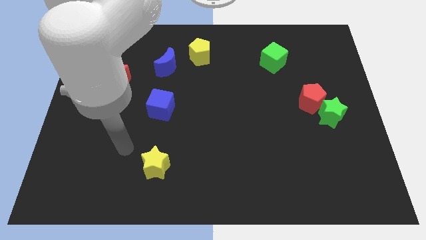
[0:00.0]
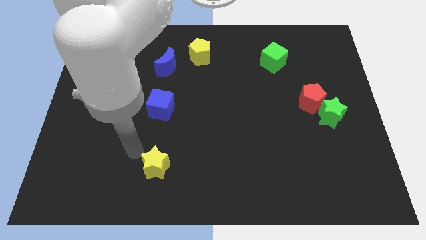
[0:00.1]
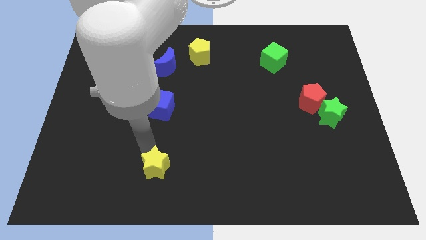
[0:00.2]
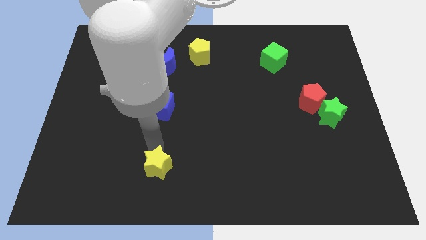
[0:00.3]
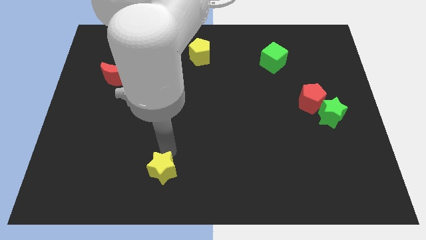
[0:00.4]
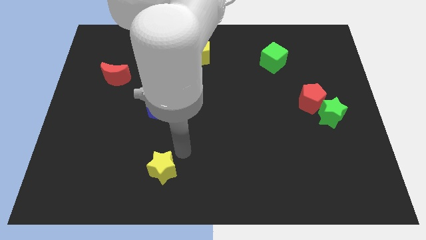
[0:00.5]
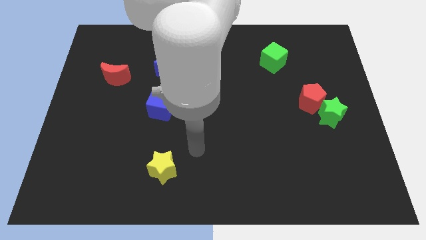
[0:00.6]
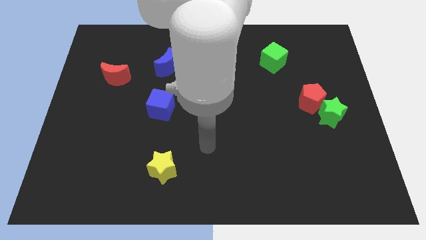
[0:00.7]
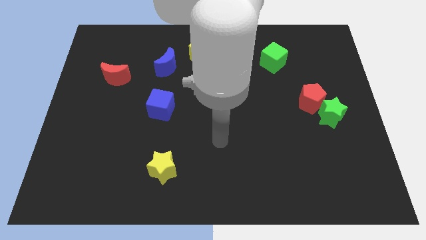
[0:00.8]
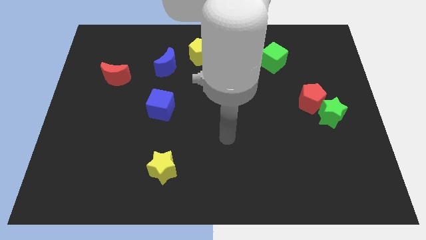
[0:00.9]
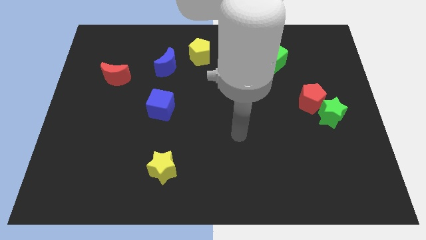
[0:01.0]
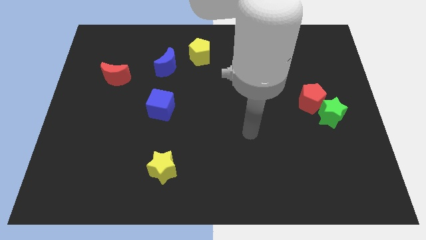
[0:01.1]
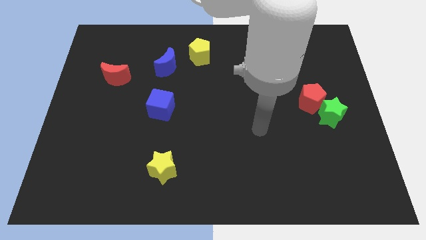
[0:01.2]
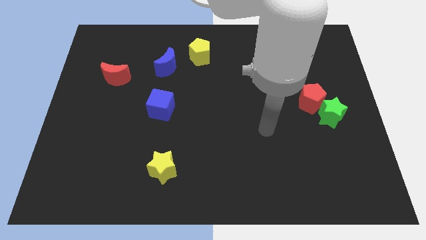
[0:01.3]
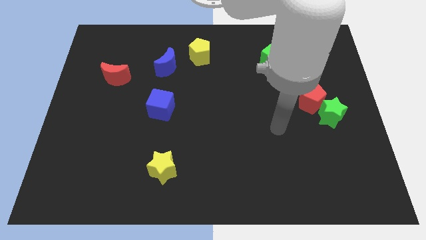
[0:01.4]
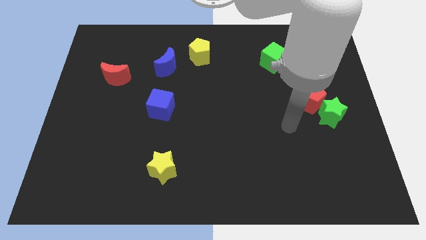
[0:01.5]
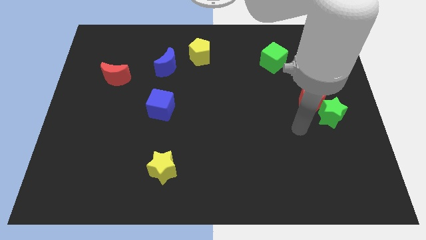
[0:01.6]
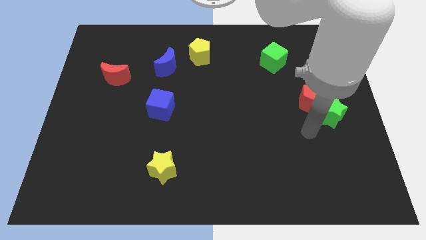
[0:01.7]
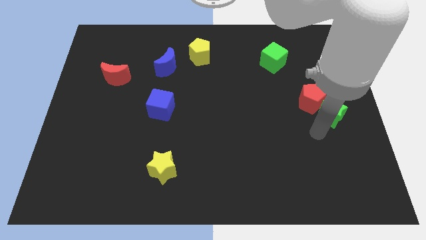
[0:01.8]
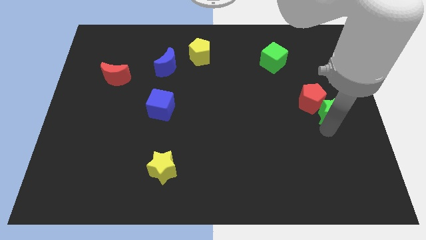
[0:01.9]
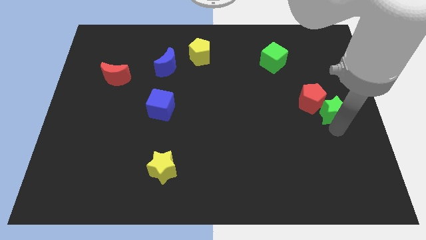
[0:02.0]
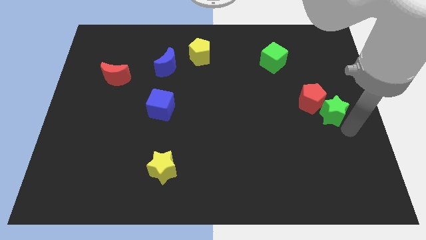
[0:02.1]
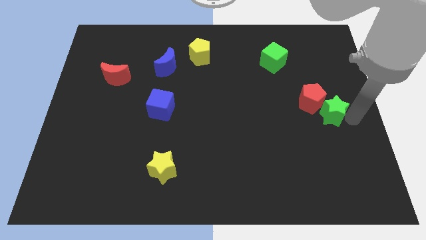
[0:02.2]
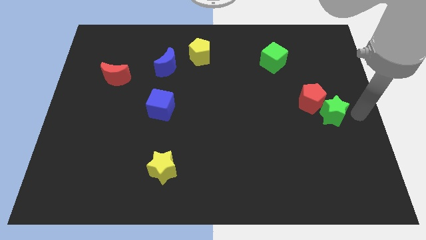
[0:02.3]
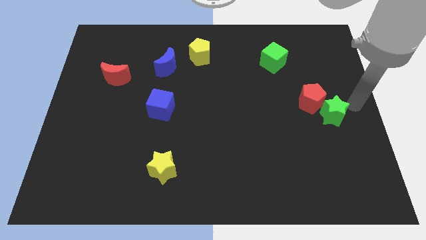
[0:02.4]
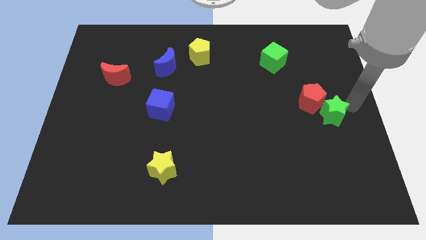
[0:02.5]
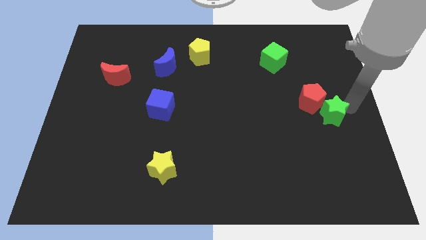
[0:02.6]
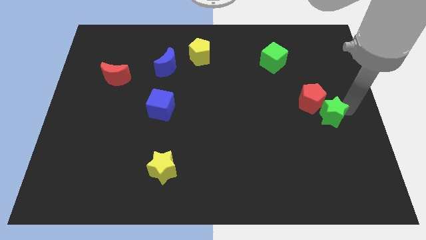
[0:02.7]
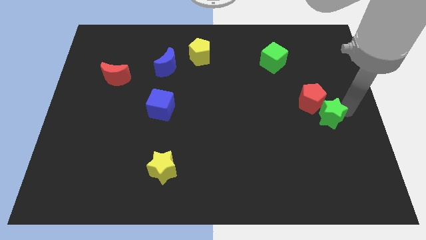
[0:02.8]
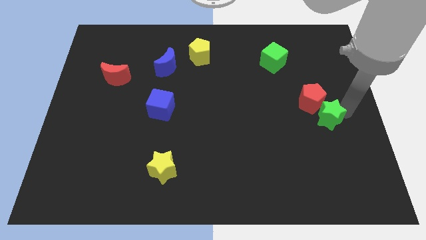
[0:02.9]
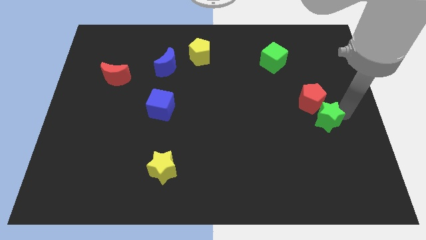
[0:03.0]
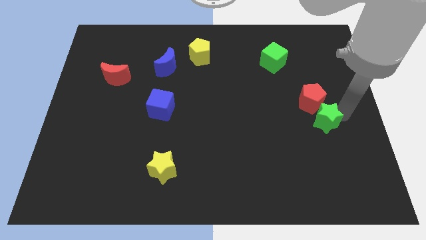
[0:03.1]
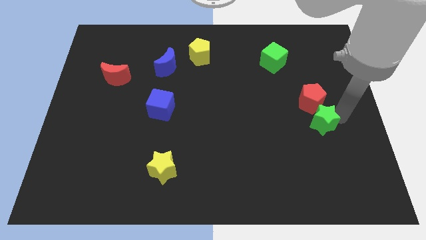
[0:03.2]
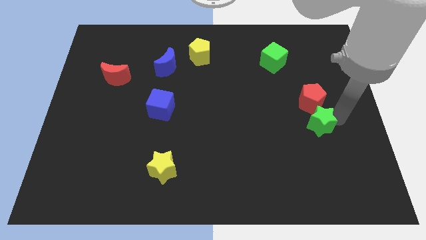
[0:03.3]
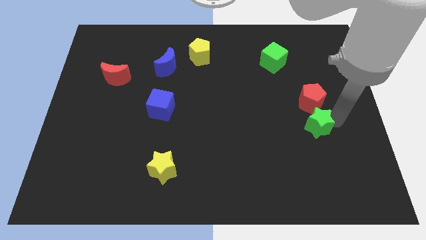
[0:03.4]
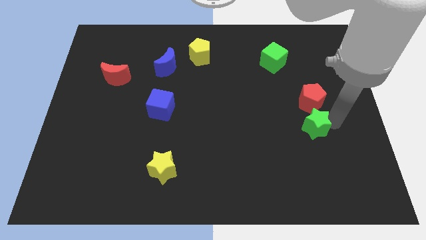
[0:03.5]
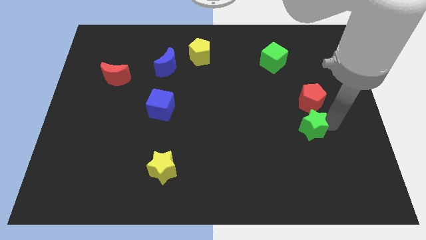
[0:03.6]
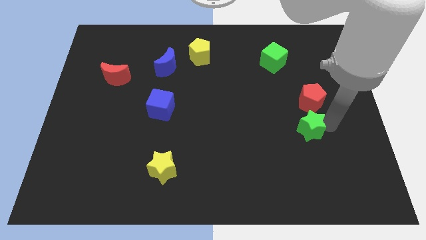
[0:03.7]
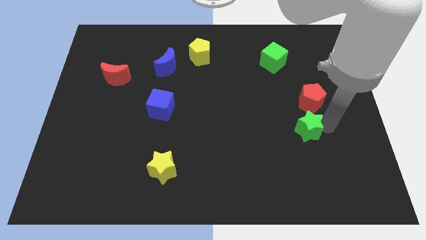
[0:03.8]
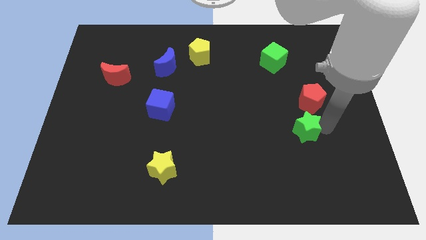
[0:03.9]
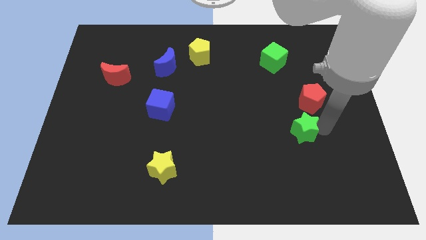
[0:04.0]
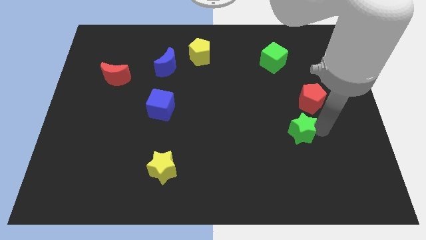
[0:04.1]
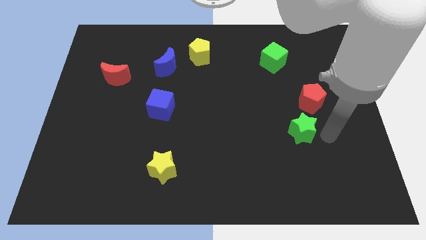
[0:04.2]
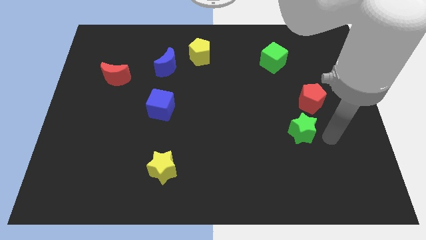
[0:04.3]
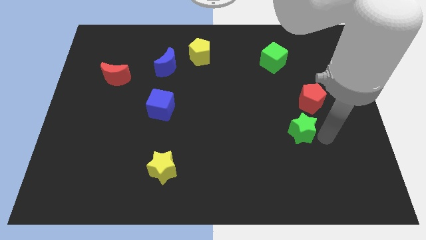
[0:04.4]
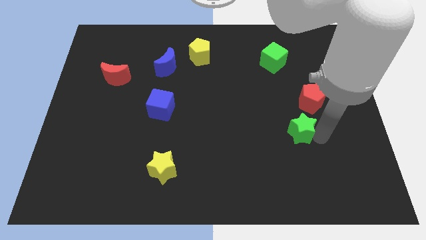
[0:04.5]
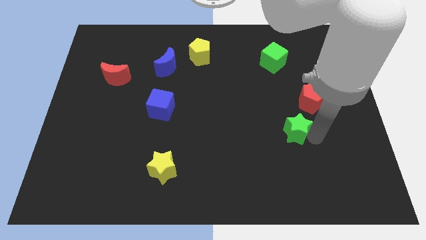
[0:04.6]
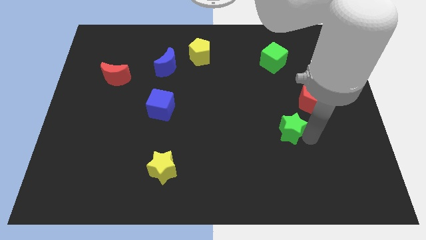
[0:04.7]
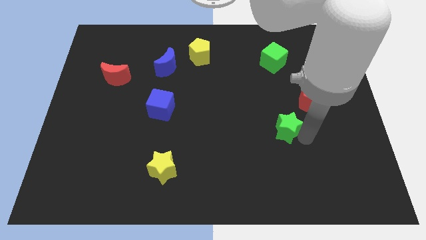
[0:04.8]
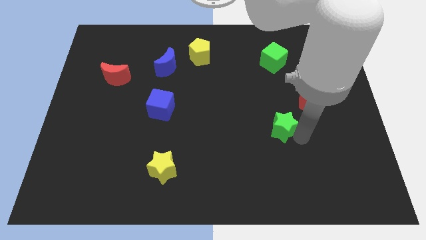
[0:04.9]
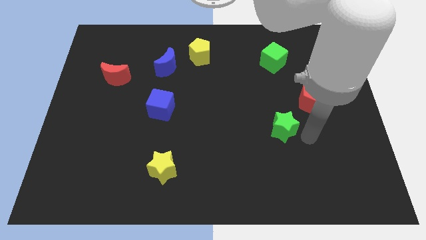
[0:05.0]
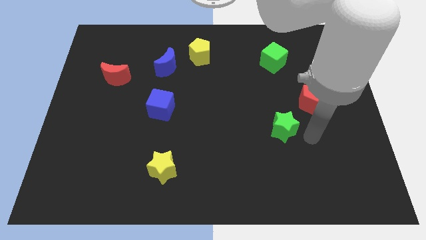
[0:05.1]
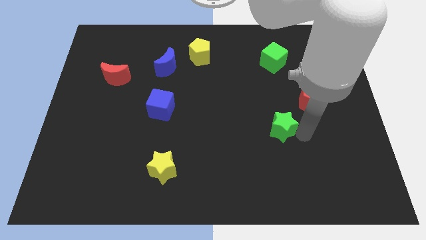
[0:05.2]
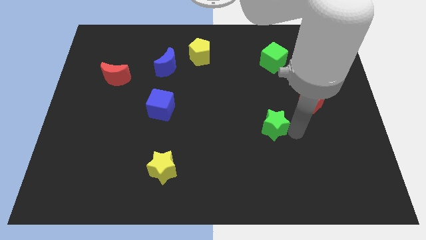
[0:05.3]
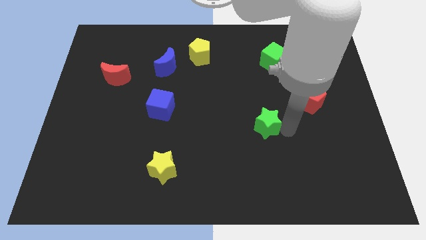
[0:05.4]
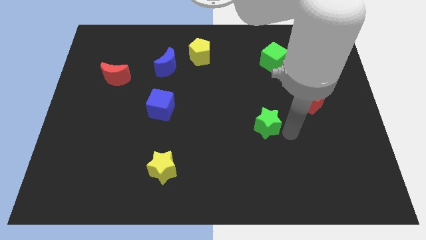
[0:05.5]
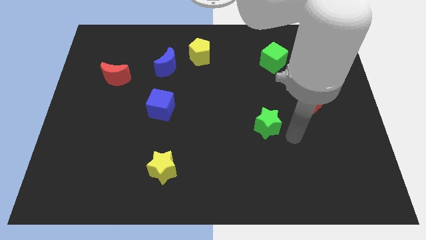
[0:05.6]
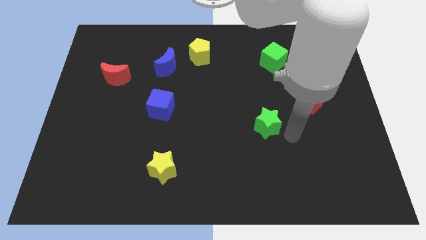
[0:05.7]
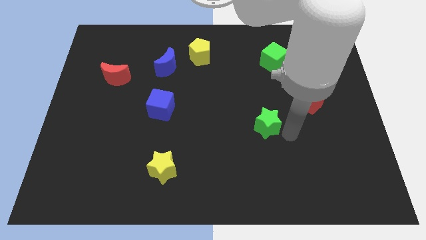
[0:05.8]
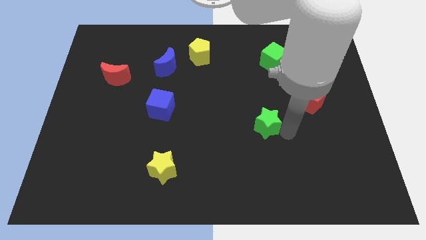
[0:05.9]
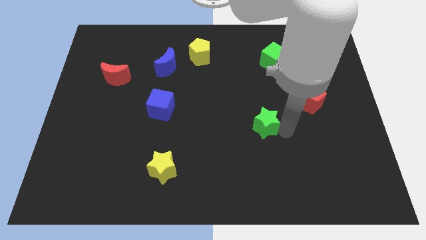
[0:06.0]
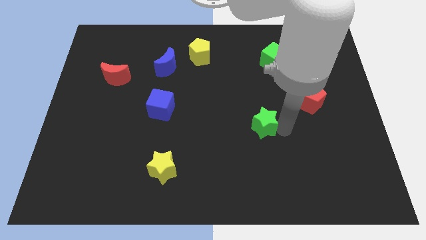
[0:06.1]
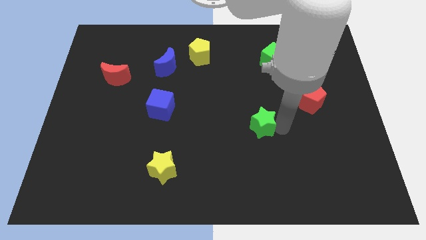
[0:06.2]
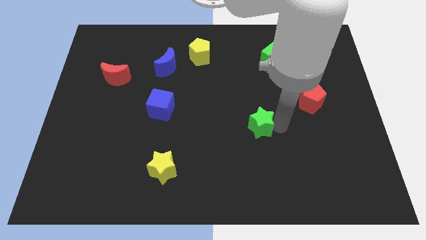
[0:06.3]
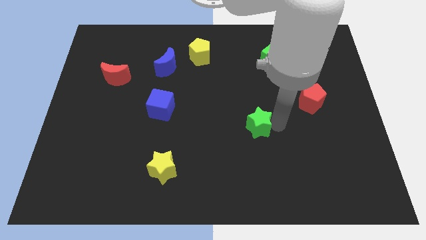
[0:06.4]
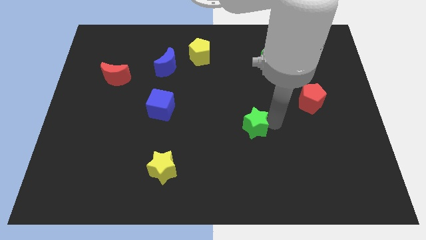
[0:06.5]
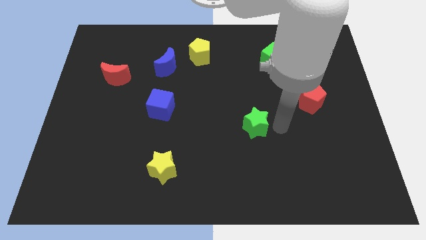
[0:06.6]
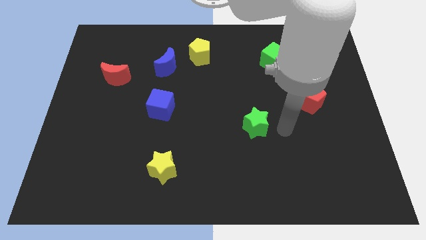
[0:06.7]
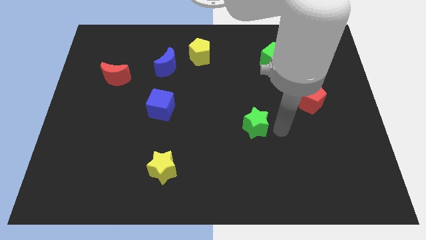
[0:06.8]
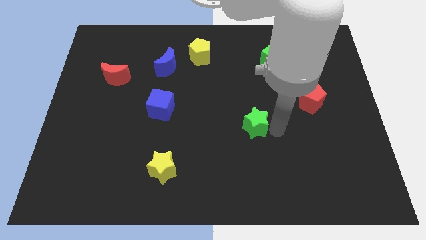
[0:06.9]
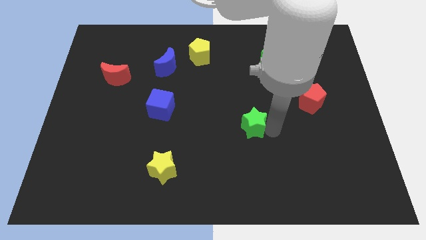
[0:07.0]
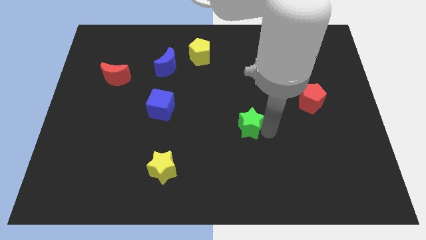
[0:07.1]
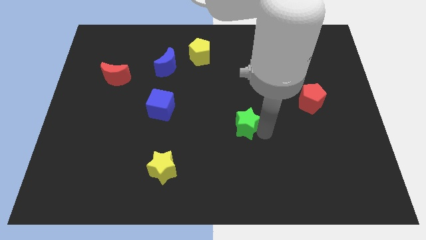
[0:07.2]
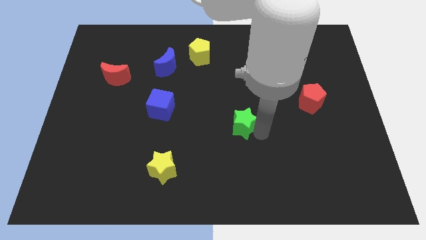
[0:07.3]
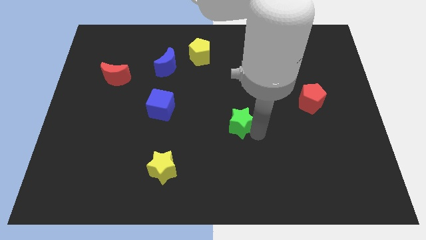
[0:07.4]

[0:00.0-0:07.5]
slide the green star to the left

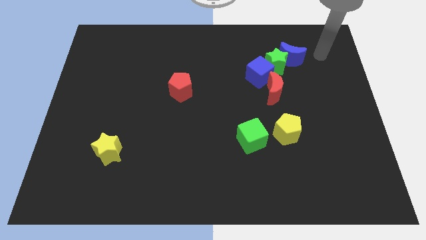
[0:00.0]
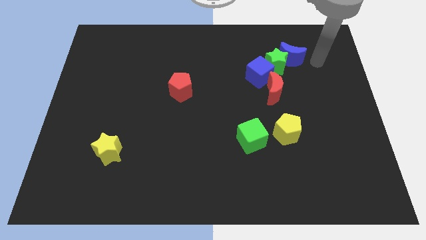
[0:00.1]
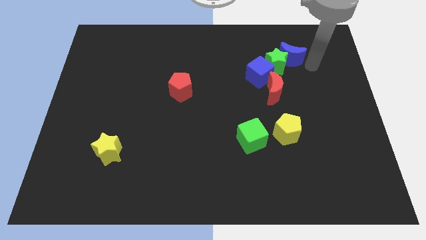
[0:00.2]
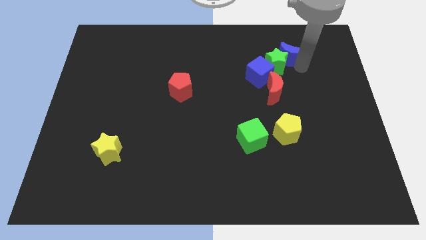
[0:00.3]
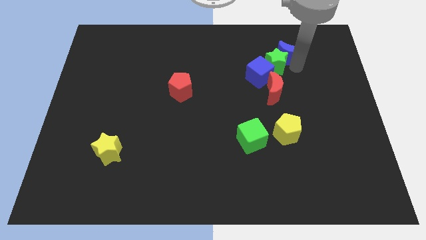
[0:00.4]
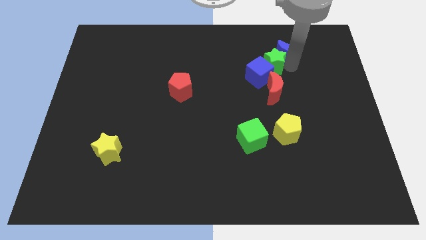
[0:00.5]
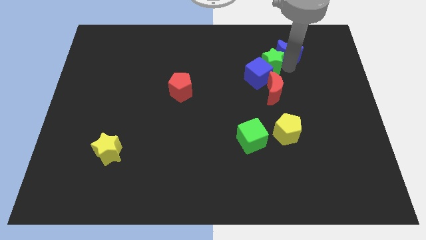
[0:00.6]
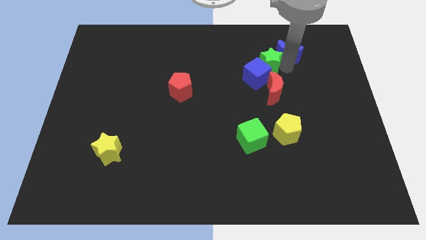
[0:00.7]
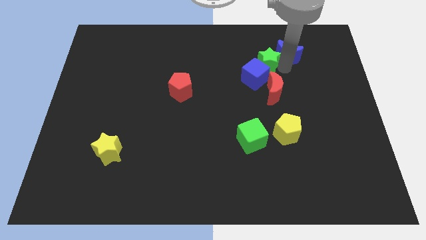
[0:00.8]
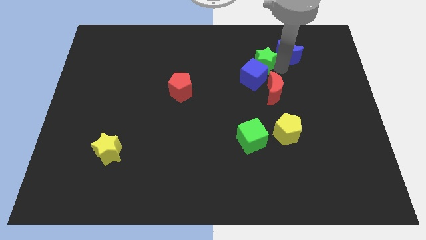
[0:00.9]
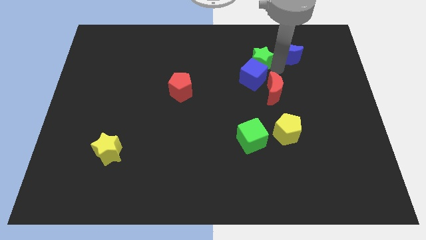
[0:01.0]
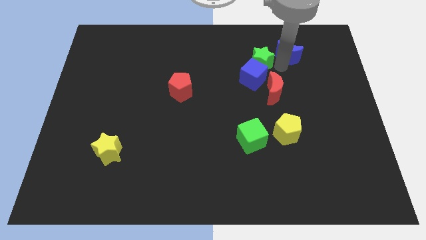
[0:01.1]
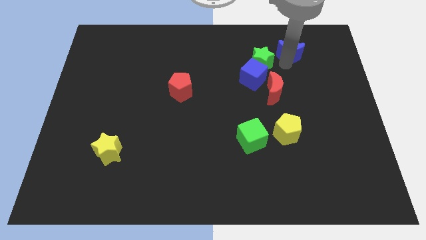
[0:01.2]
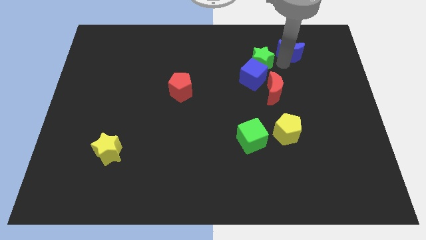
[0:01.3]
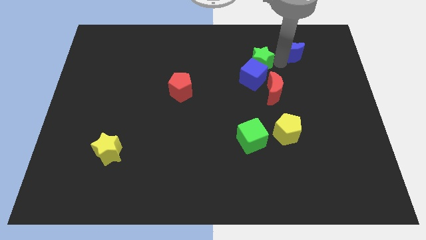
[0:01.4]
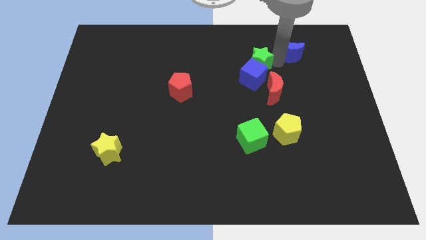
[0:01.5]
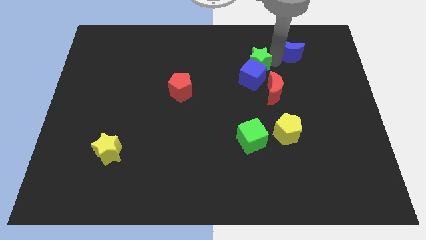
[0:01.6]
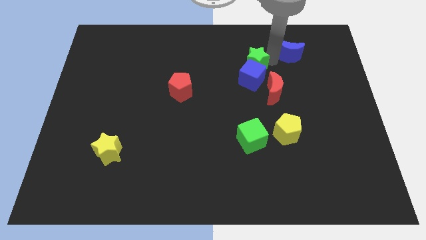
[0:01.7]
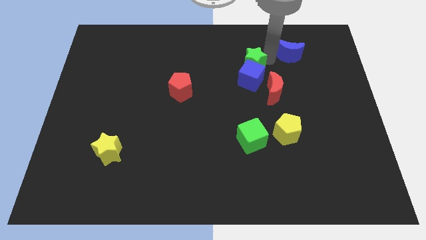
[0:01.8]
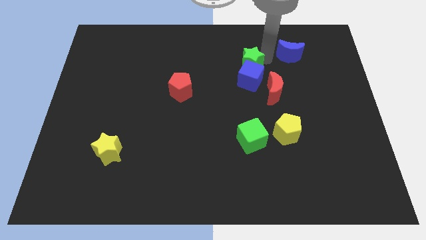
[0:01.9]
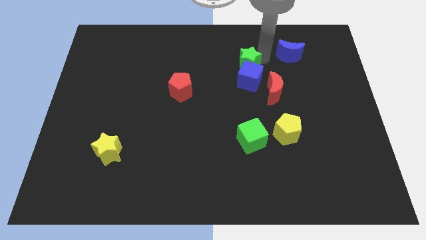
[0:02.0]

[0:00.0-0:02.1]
slide the green star a bit left
